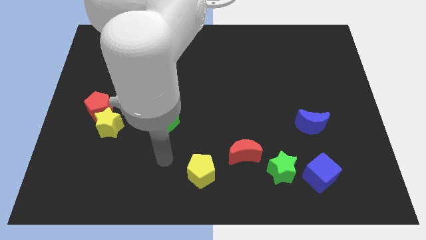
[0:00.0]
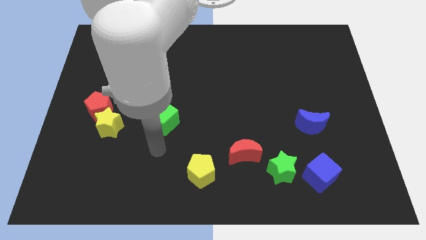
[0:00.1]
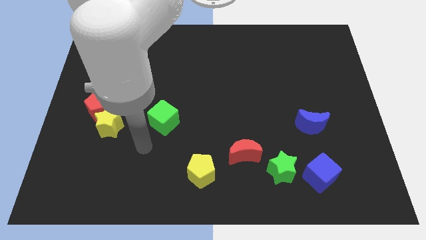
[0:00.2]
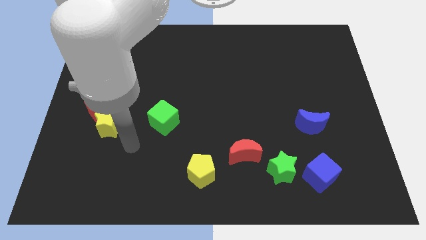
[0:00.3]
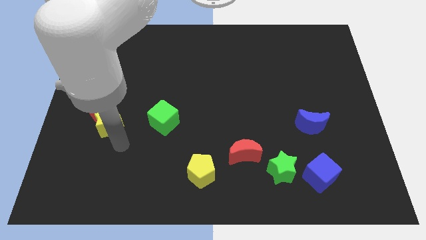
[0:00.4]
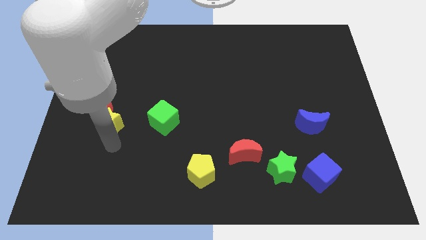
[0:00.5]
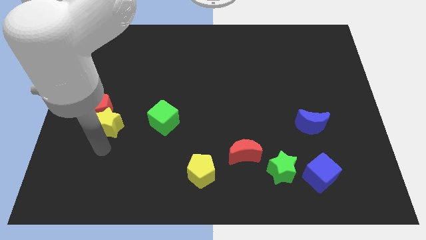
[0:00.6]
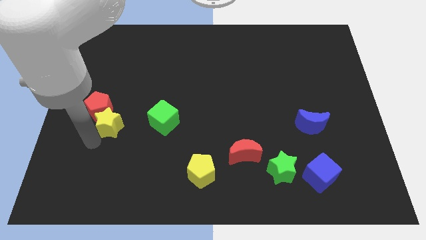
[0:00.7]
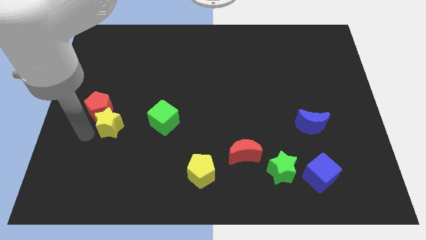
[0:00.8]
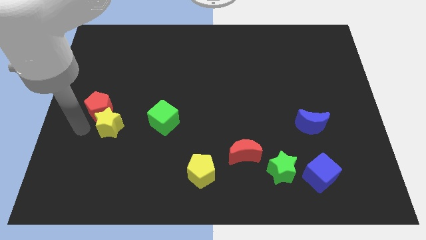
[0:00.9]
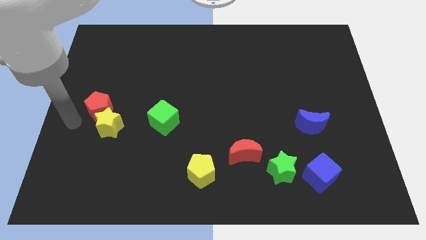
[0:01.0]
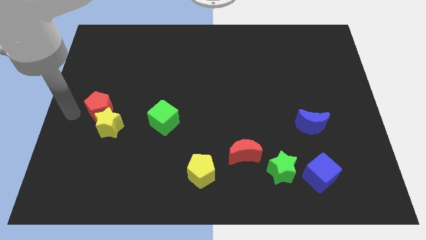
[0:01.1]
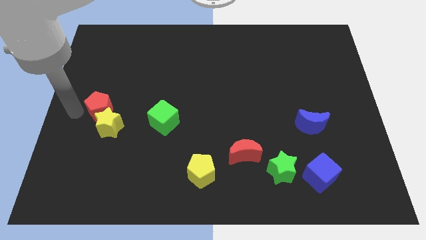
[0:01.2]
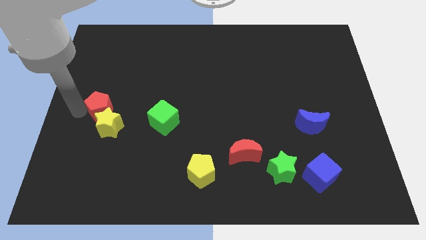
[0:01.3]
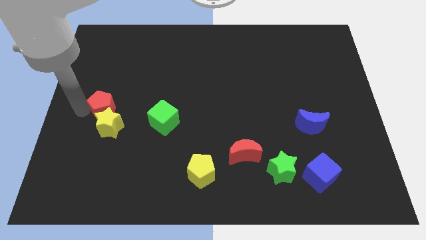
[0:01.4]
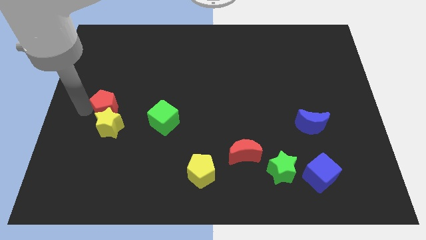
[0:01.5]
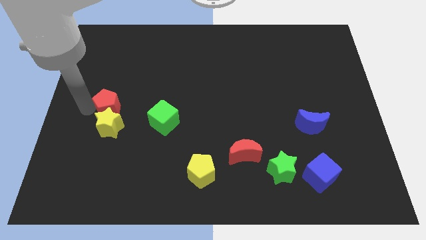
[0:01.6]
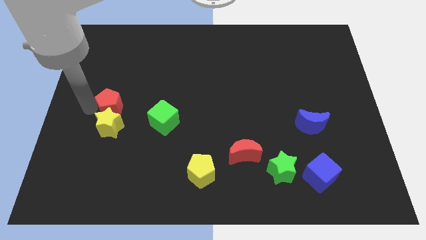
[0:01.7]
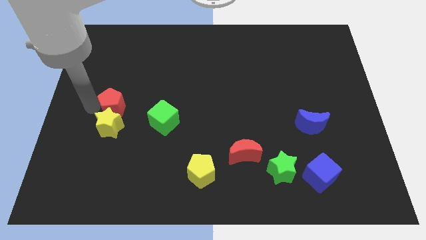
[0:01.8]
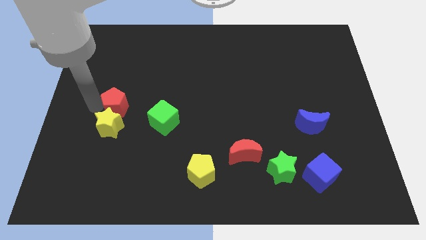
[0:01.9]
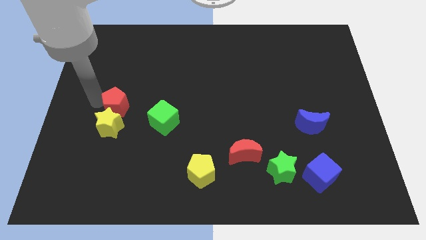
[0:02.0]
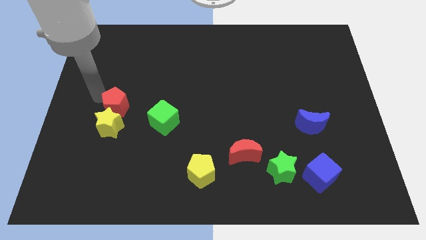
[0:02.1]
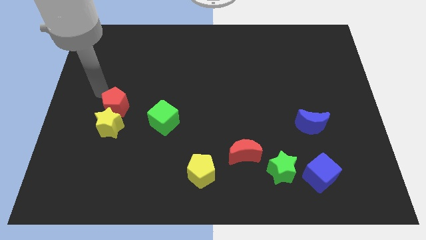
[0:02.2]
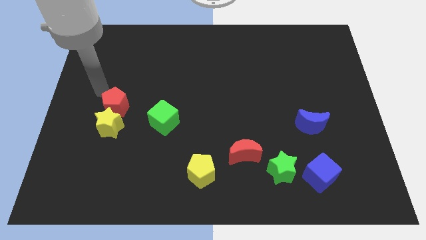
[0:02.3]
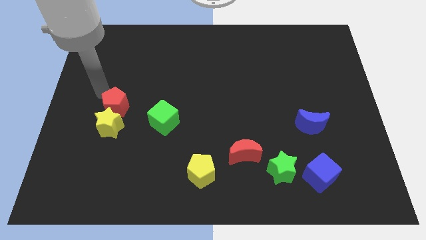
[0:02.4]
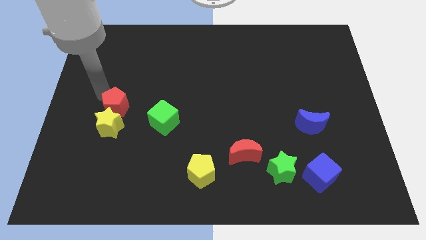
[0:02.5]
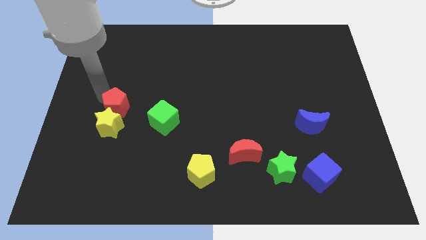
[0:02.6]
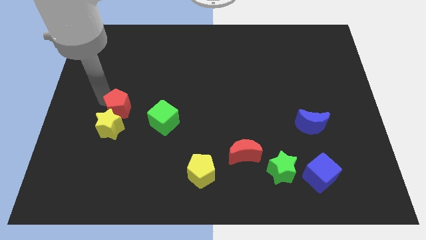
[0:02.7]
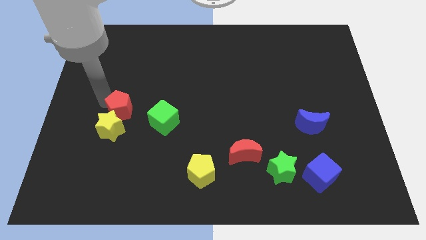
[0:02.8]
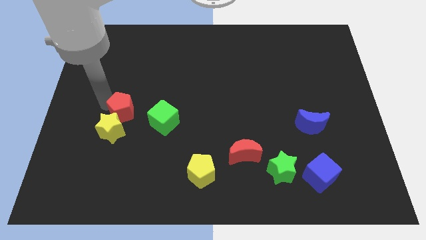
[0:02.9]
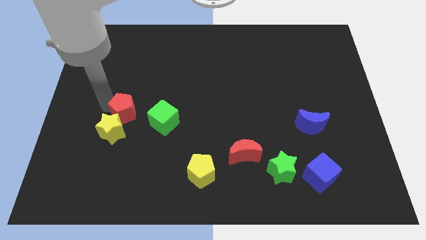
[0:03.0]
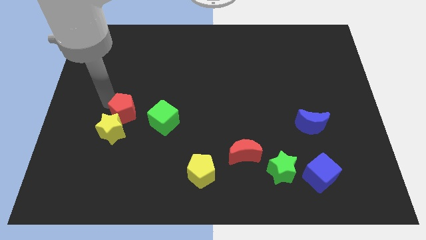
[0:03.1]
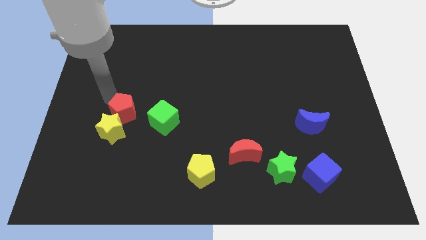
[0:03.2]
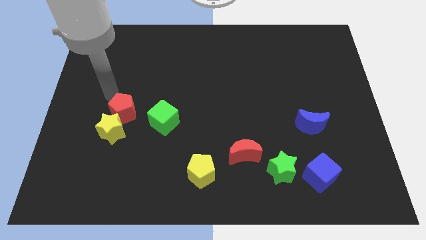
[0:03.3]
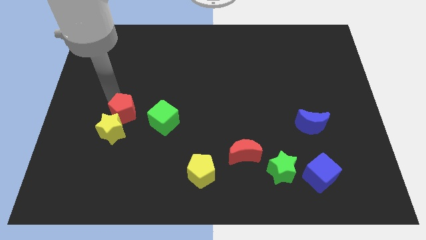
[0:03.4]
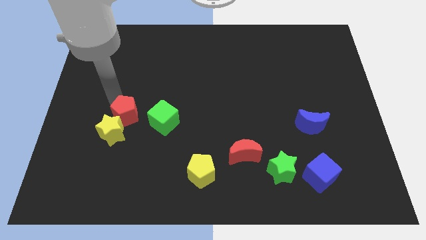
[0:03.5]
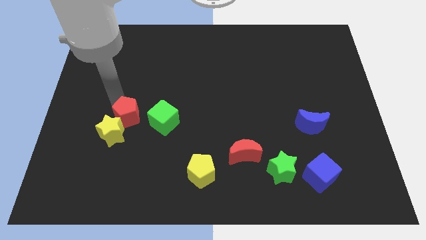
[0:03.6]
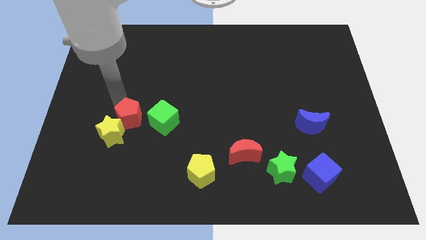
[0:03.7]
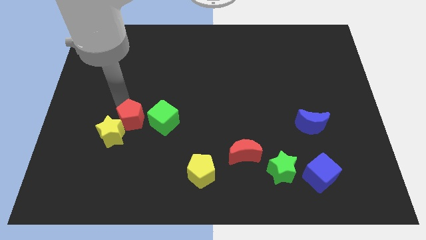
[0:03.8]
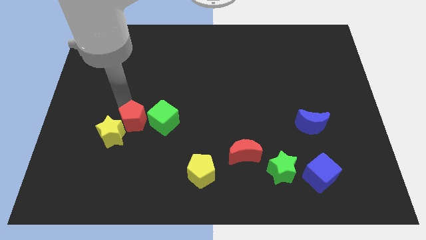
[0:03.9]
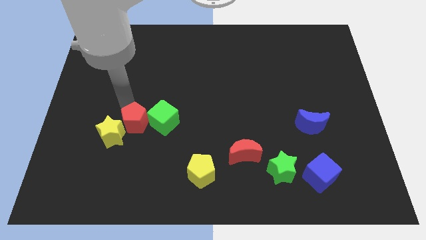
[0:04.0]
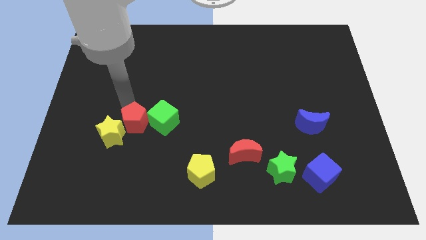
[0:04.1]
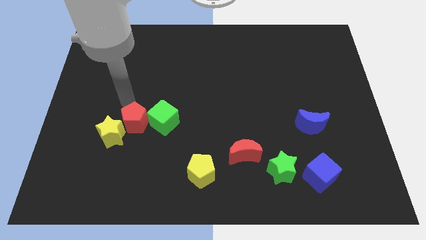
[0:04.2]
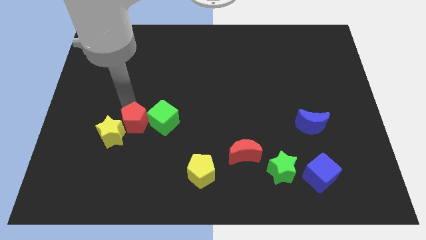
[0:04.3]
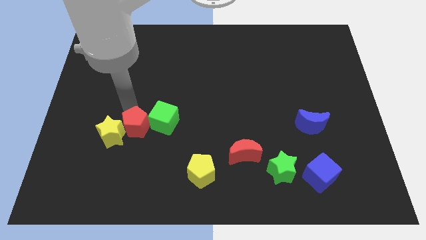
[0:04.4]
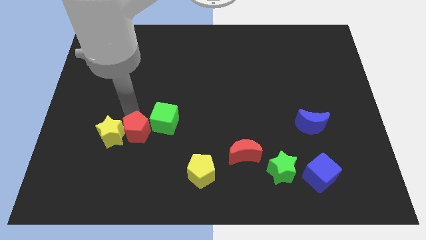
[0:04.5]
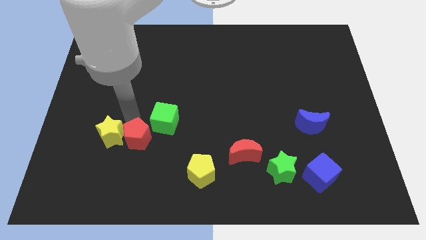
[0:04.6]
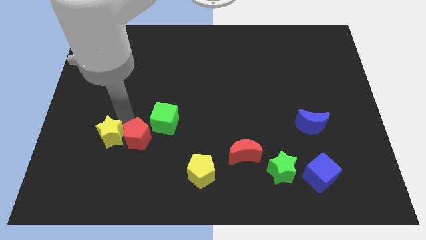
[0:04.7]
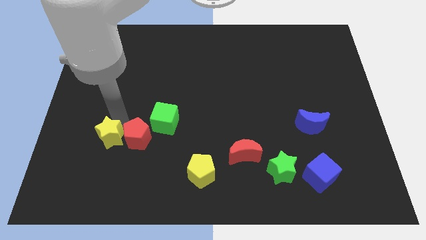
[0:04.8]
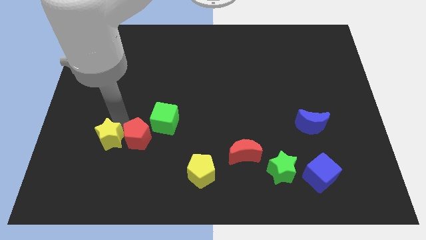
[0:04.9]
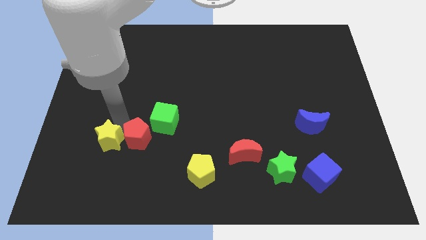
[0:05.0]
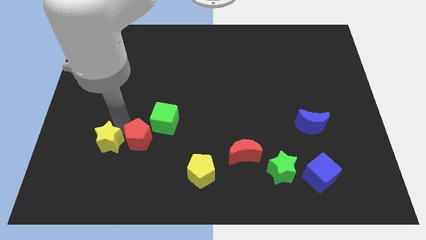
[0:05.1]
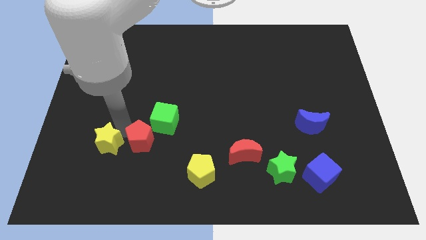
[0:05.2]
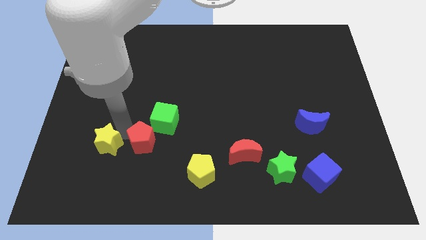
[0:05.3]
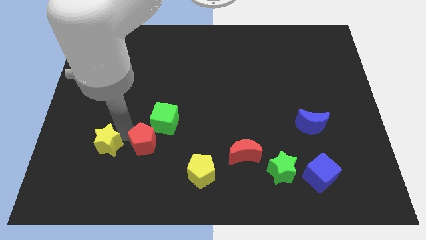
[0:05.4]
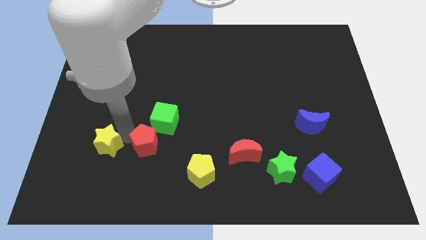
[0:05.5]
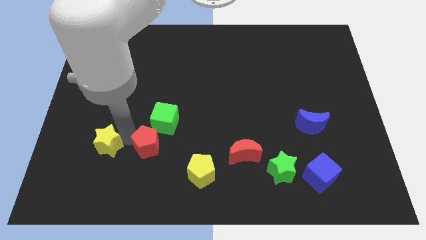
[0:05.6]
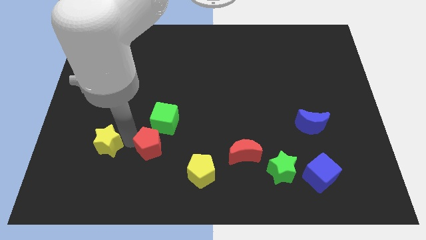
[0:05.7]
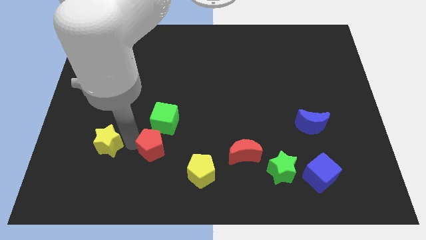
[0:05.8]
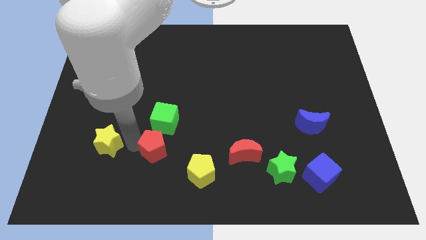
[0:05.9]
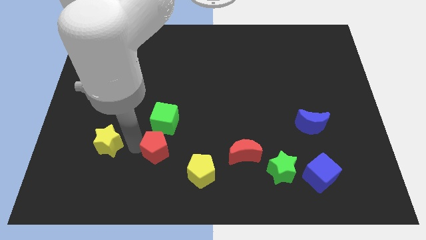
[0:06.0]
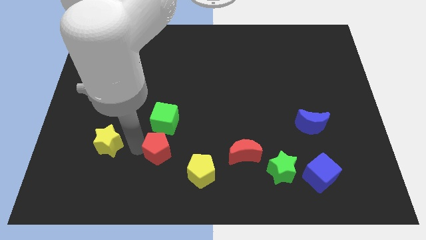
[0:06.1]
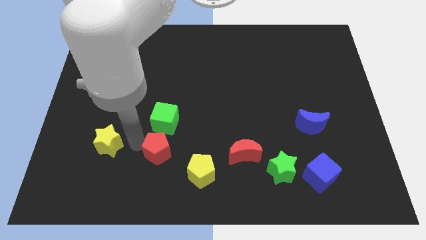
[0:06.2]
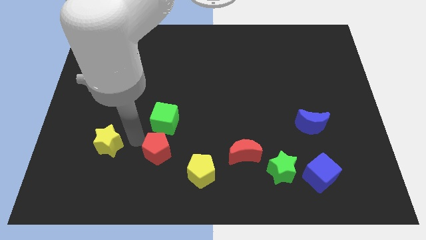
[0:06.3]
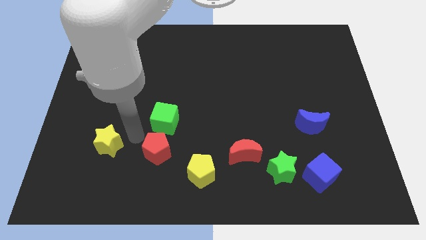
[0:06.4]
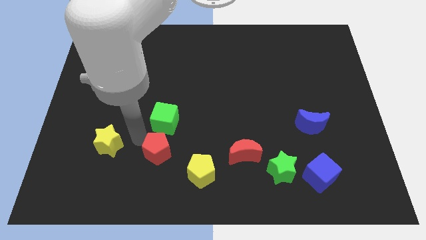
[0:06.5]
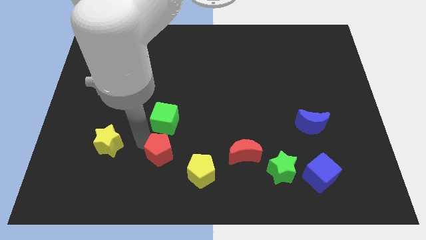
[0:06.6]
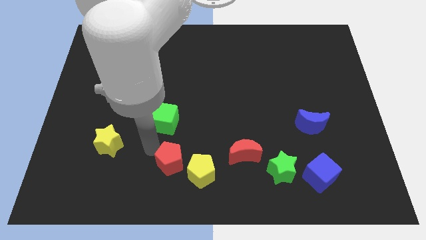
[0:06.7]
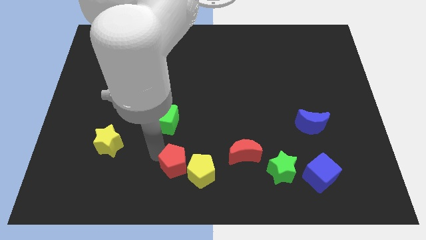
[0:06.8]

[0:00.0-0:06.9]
push the red pentagon towards the yellow pentagon
